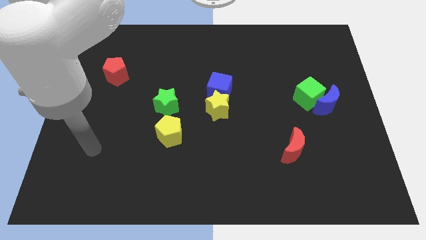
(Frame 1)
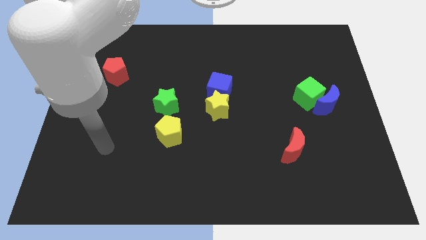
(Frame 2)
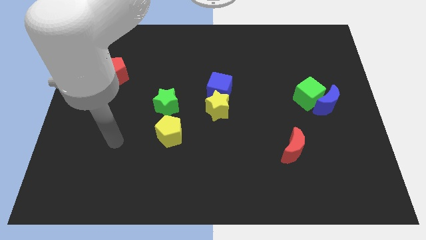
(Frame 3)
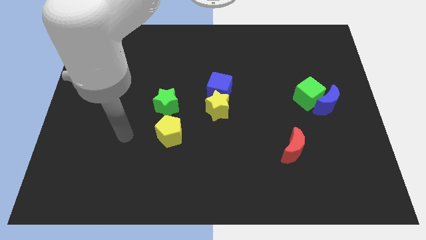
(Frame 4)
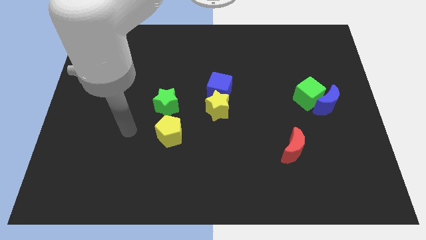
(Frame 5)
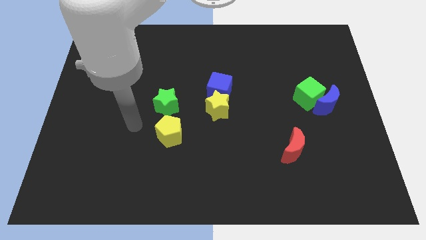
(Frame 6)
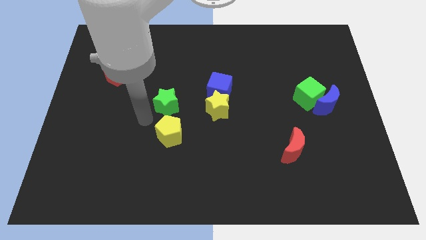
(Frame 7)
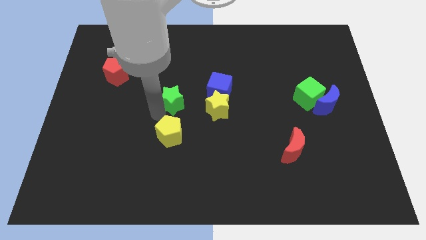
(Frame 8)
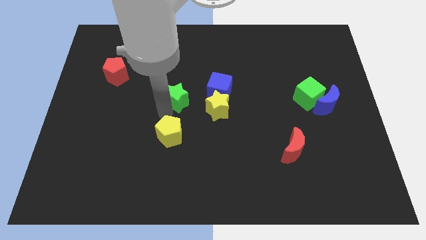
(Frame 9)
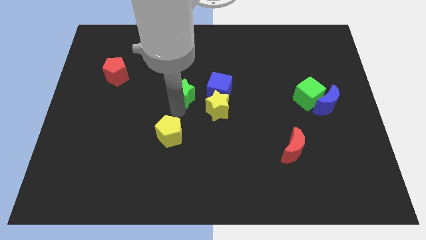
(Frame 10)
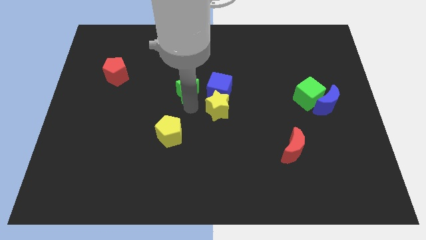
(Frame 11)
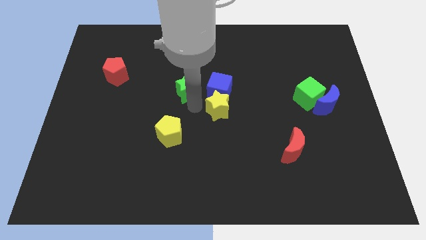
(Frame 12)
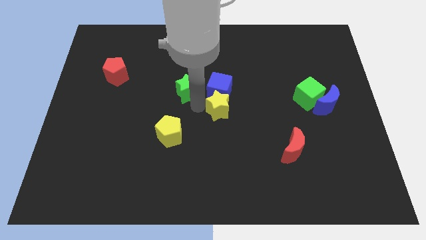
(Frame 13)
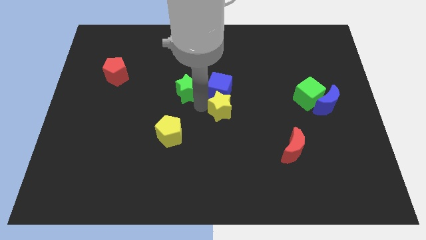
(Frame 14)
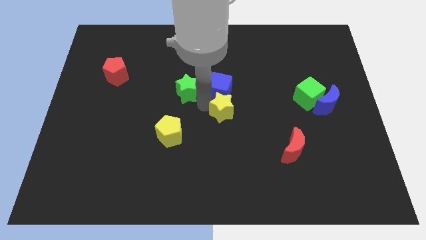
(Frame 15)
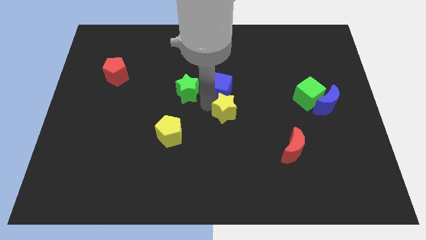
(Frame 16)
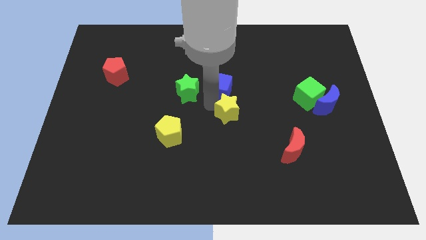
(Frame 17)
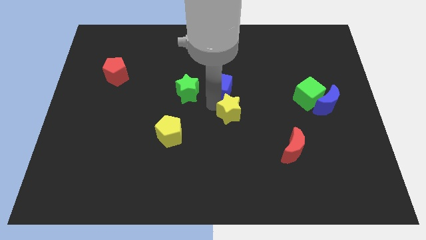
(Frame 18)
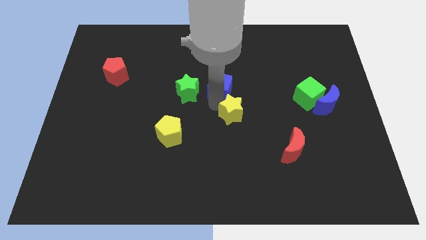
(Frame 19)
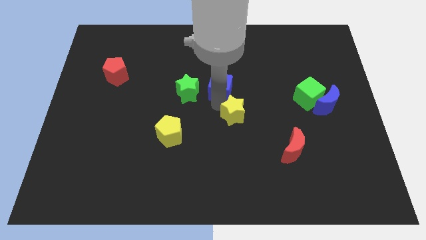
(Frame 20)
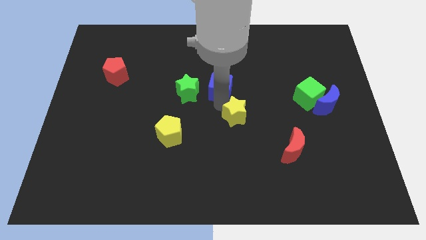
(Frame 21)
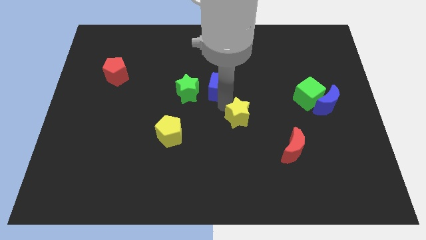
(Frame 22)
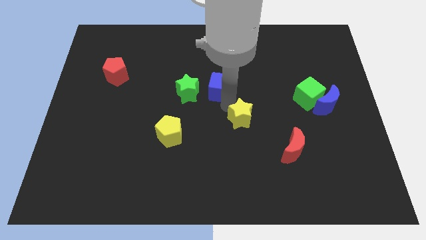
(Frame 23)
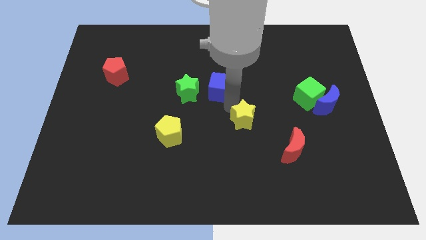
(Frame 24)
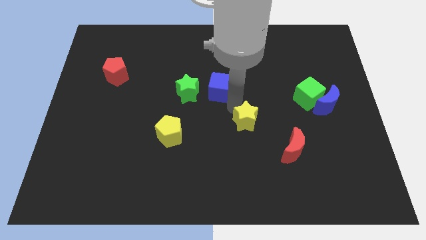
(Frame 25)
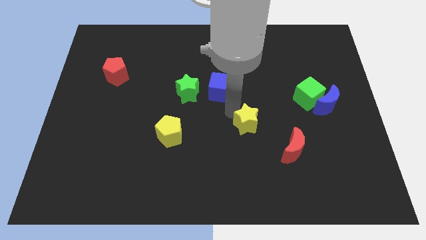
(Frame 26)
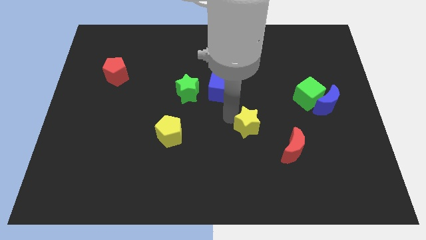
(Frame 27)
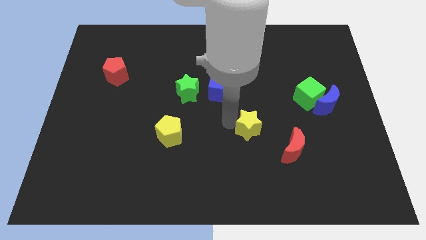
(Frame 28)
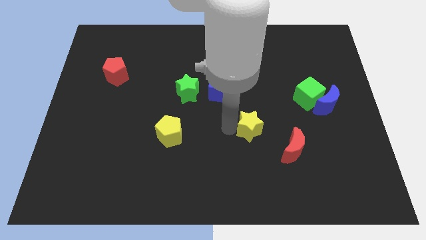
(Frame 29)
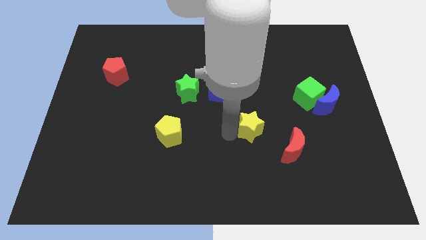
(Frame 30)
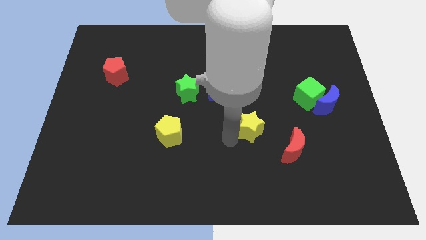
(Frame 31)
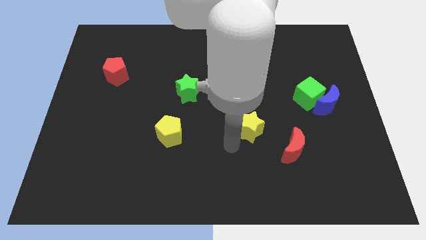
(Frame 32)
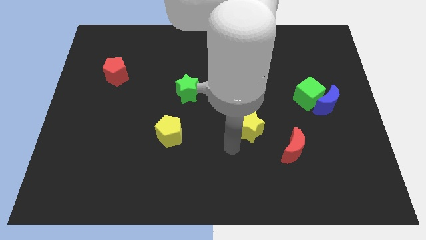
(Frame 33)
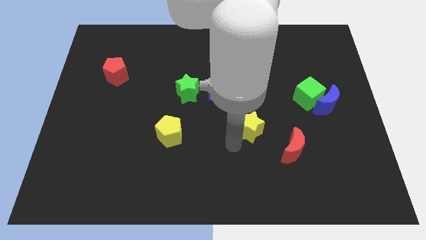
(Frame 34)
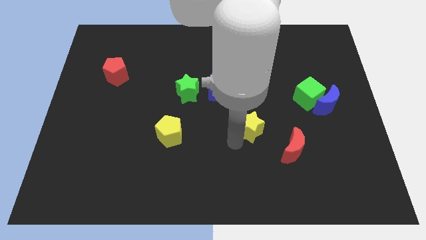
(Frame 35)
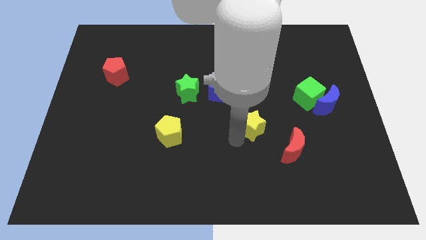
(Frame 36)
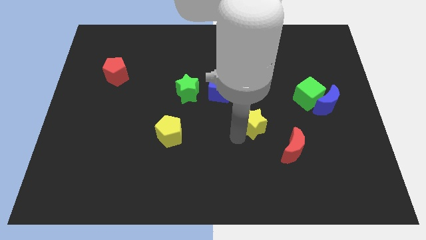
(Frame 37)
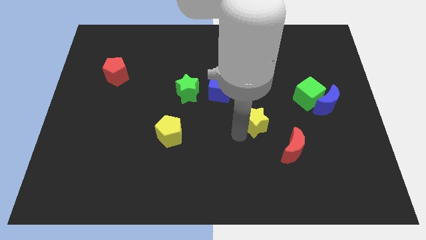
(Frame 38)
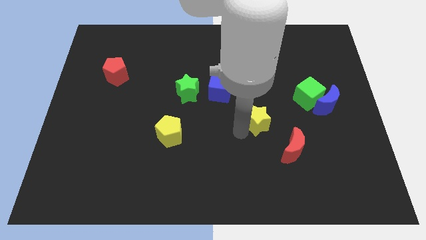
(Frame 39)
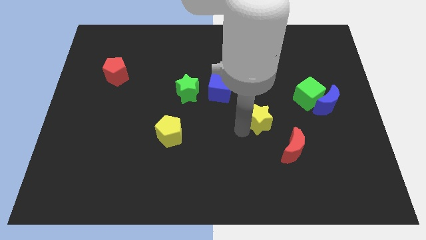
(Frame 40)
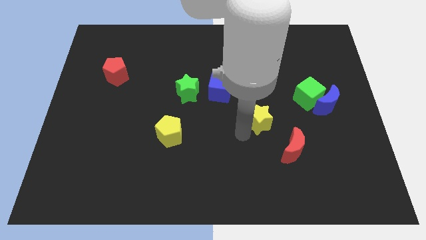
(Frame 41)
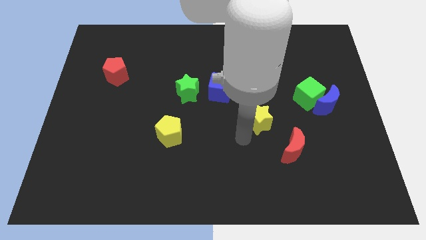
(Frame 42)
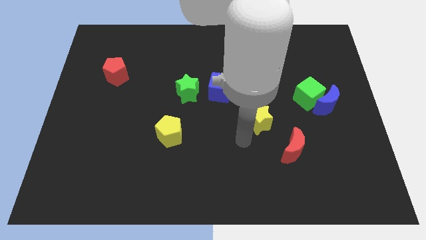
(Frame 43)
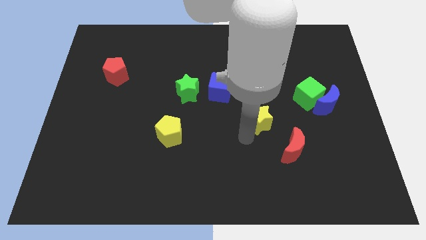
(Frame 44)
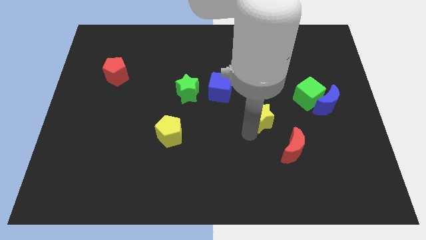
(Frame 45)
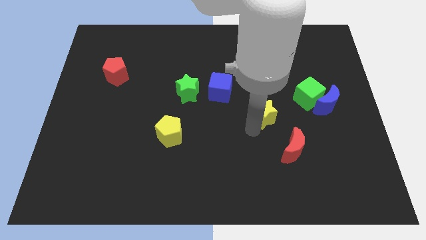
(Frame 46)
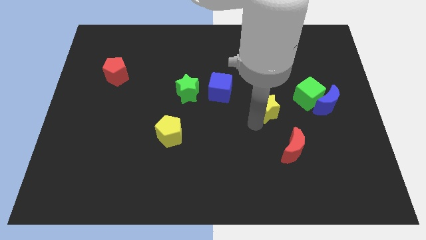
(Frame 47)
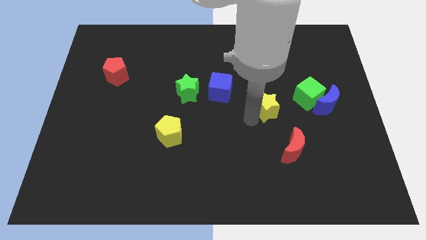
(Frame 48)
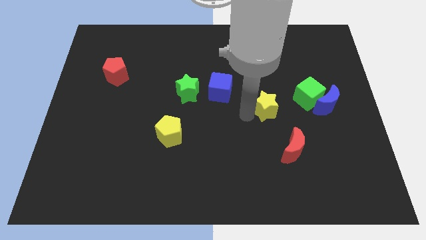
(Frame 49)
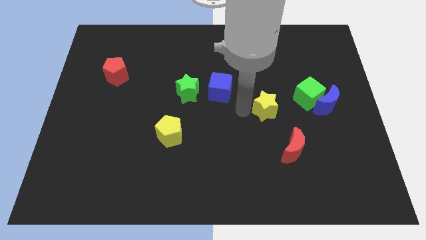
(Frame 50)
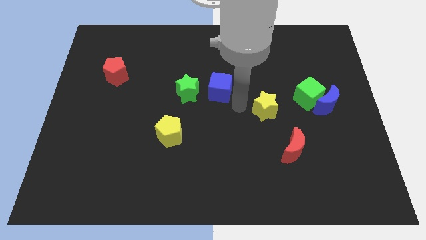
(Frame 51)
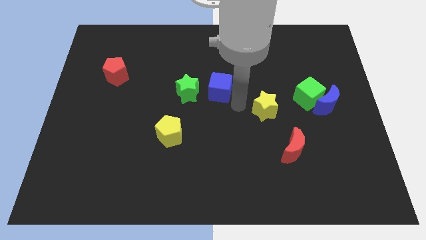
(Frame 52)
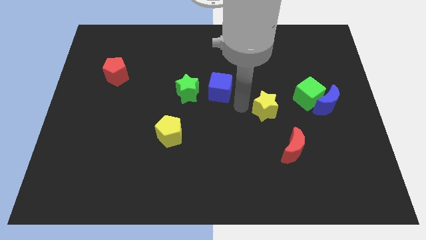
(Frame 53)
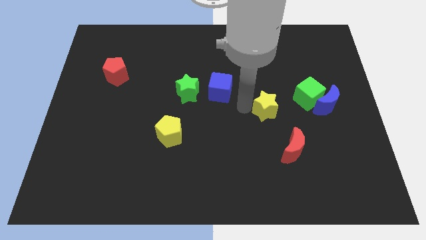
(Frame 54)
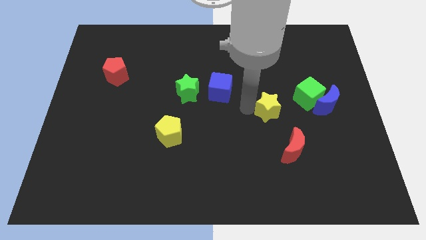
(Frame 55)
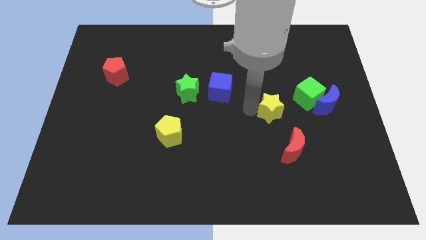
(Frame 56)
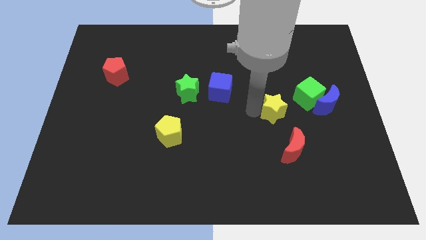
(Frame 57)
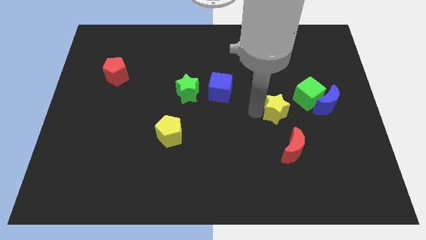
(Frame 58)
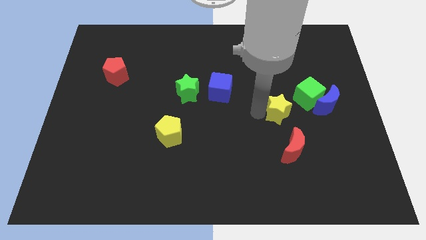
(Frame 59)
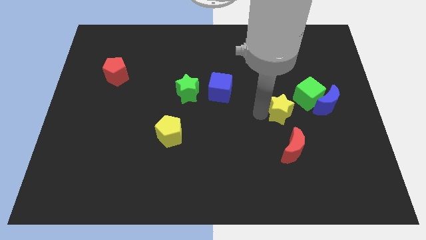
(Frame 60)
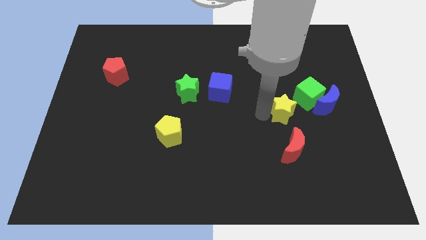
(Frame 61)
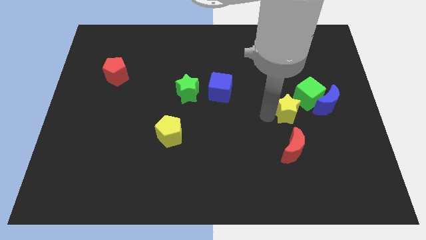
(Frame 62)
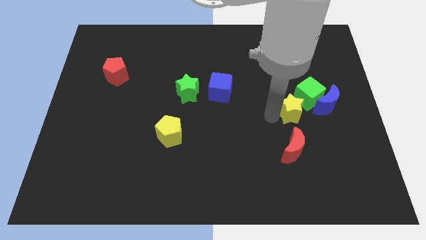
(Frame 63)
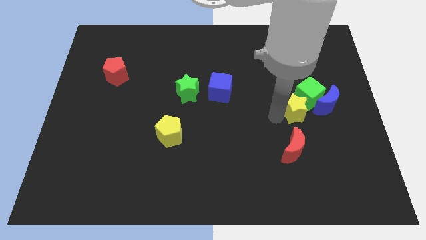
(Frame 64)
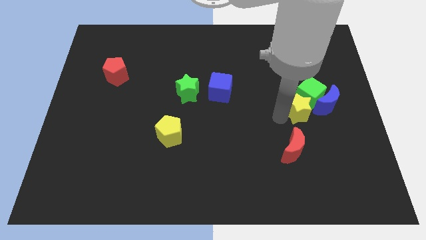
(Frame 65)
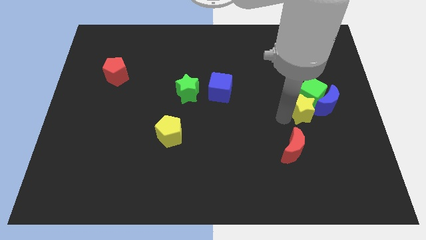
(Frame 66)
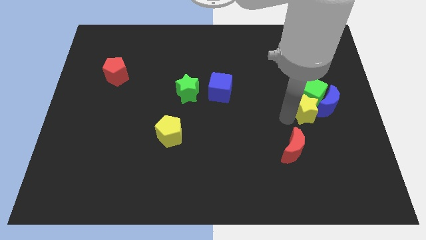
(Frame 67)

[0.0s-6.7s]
slide the yellow star towards the blue moon

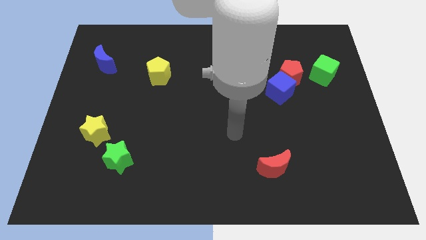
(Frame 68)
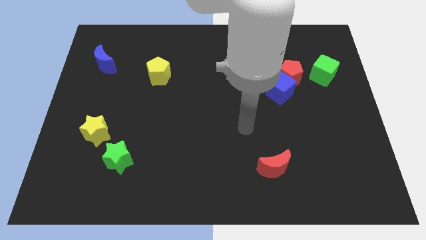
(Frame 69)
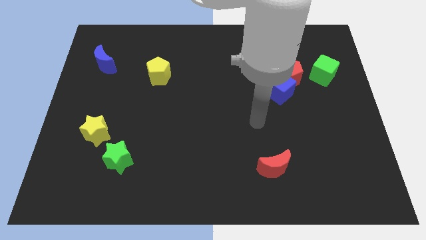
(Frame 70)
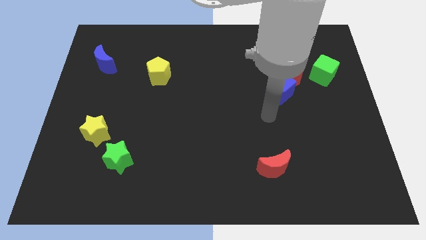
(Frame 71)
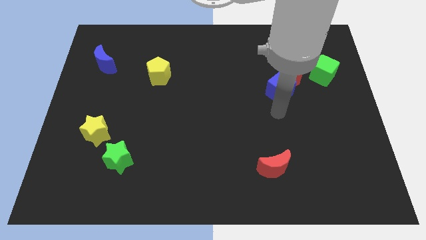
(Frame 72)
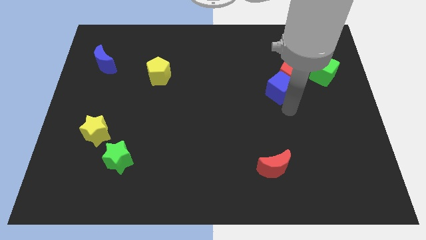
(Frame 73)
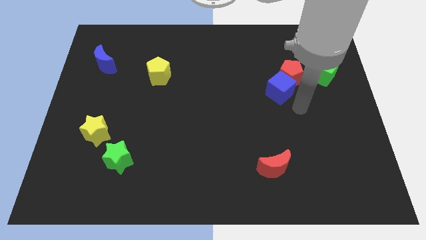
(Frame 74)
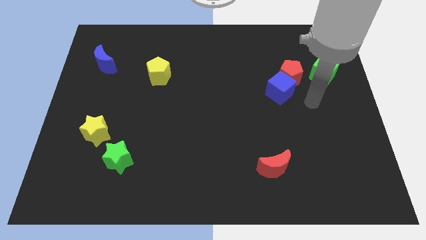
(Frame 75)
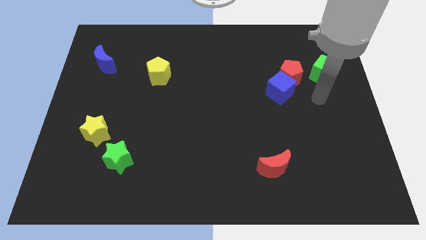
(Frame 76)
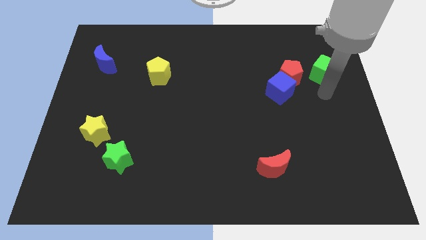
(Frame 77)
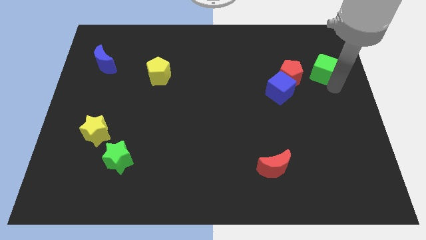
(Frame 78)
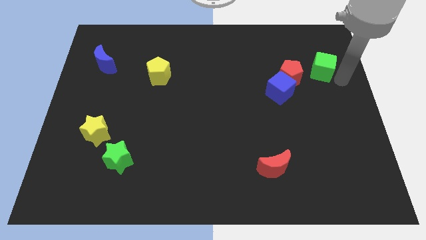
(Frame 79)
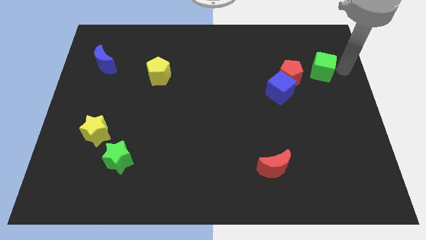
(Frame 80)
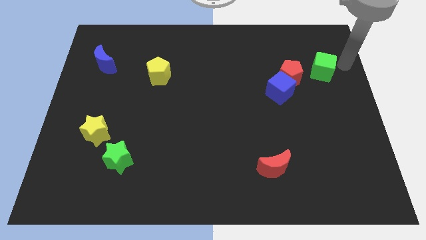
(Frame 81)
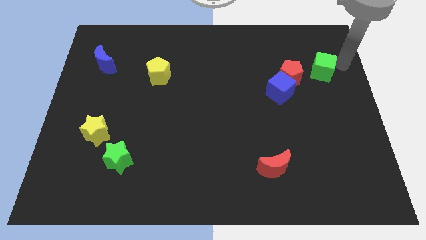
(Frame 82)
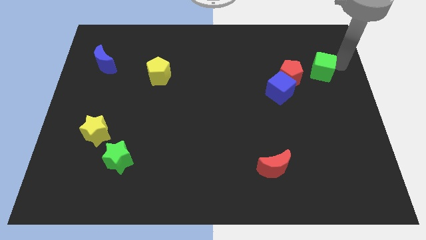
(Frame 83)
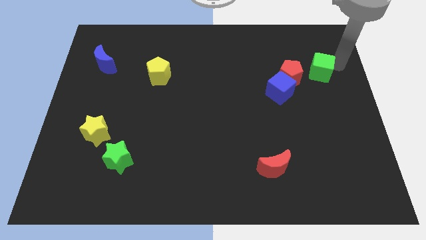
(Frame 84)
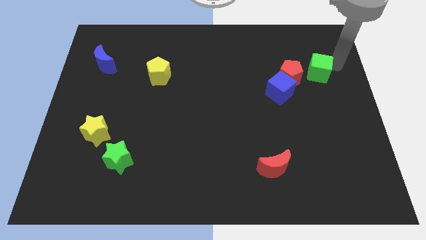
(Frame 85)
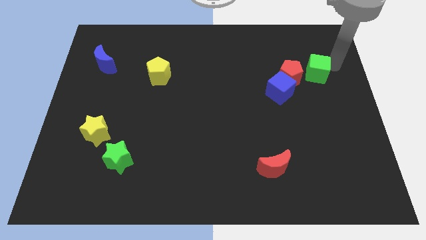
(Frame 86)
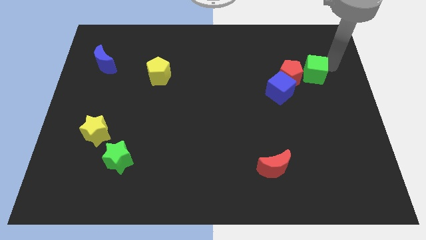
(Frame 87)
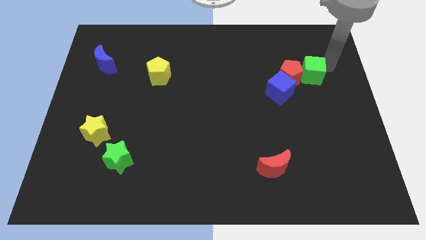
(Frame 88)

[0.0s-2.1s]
move the green cube close to the red pentagon
